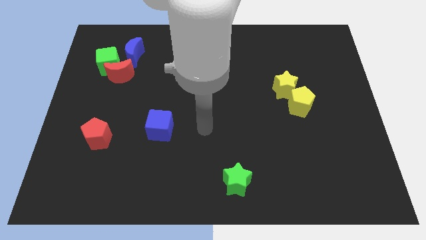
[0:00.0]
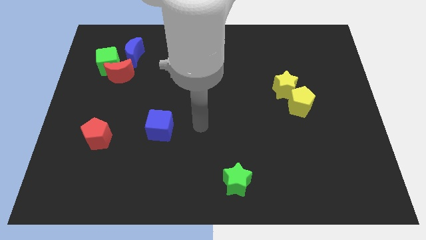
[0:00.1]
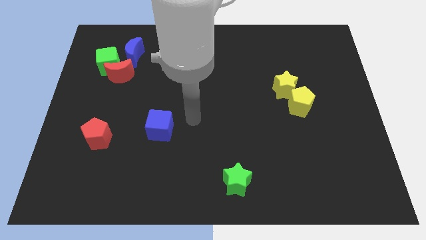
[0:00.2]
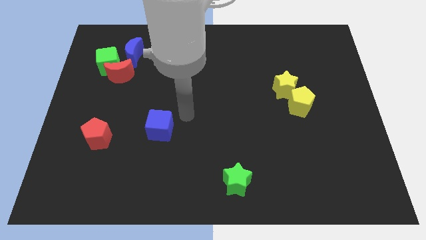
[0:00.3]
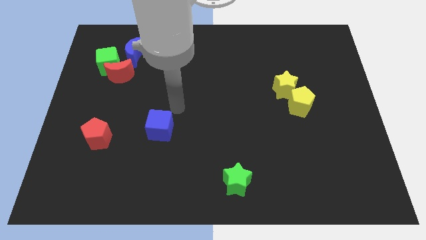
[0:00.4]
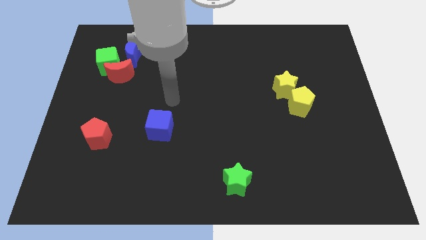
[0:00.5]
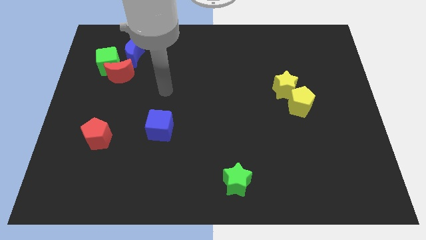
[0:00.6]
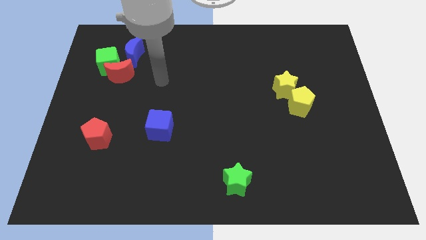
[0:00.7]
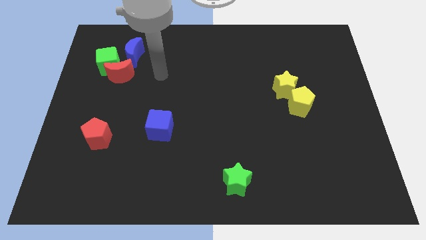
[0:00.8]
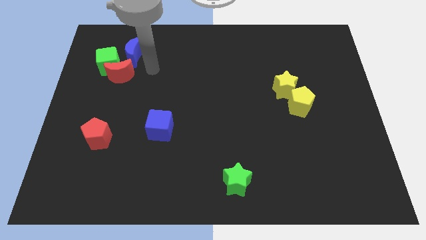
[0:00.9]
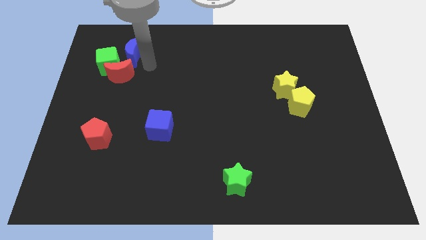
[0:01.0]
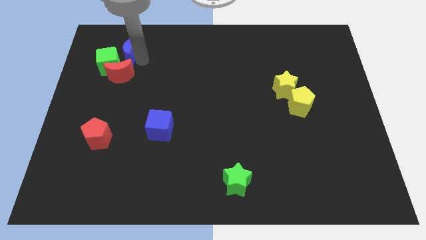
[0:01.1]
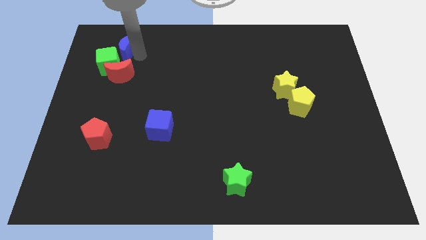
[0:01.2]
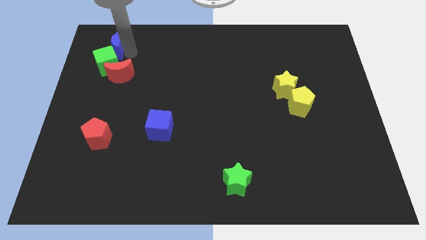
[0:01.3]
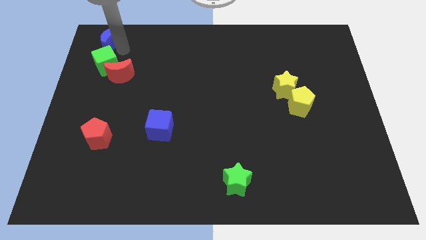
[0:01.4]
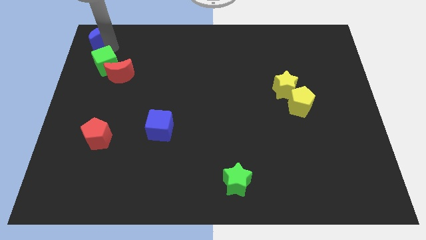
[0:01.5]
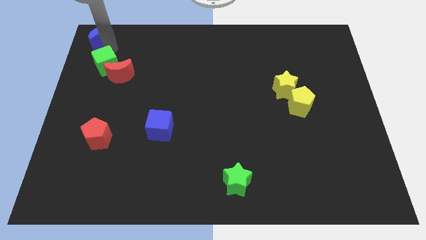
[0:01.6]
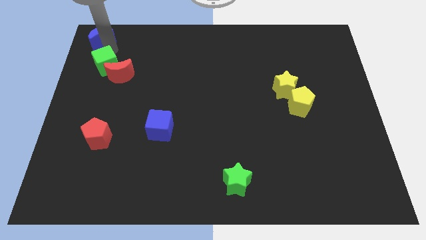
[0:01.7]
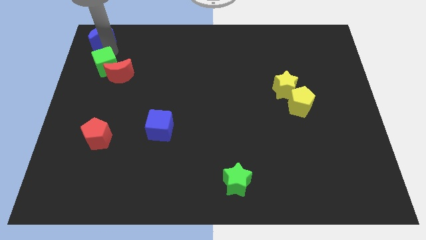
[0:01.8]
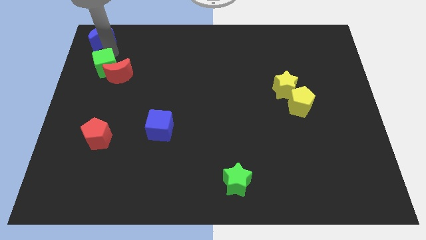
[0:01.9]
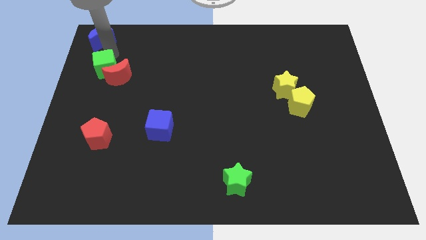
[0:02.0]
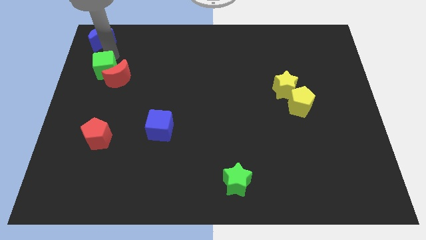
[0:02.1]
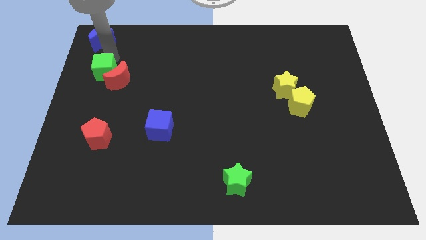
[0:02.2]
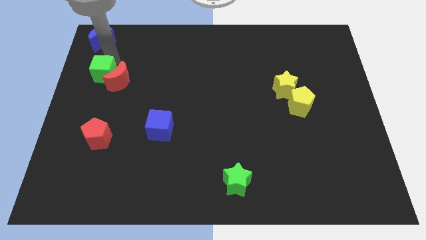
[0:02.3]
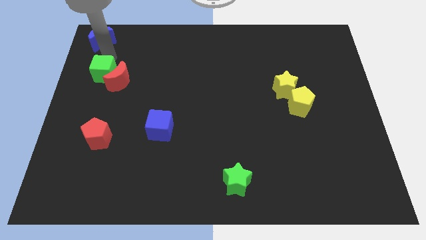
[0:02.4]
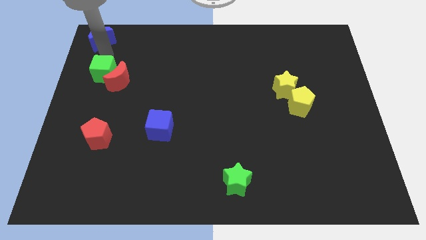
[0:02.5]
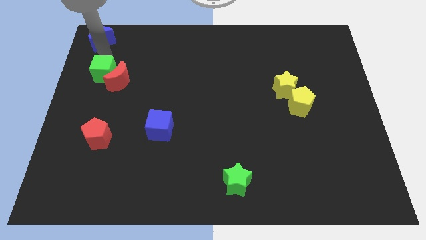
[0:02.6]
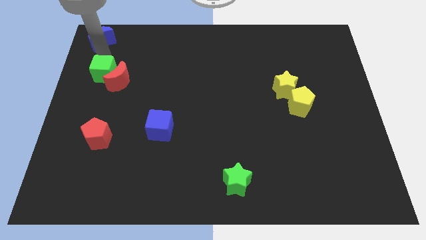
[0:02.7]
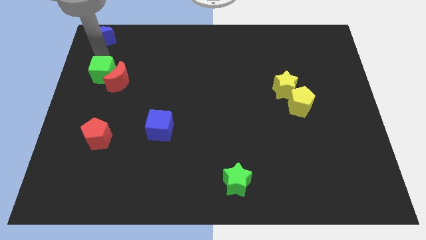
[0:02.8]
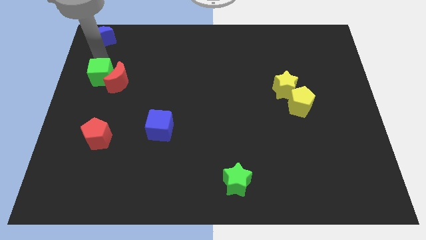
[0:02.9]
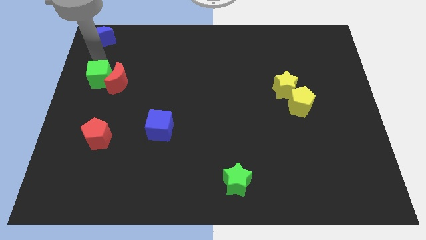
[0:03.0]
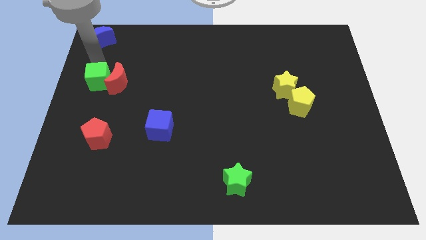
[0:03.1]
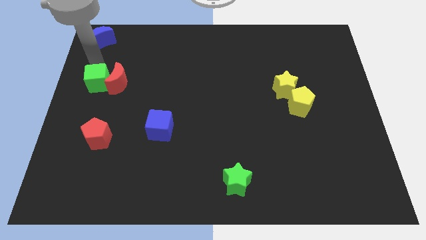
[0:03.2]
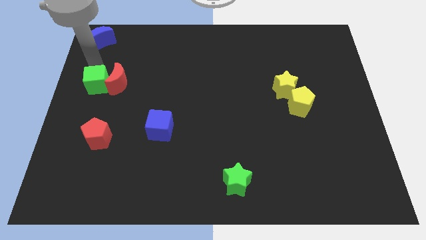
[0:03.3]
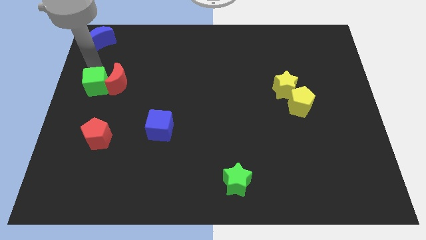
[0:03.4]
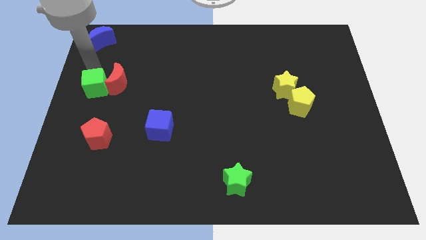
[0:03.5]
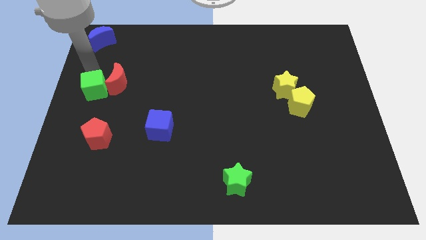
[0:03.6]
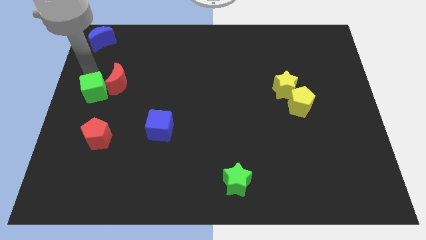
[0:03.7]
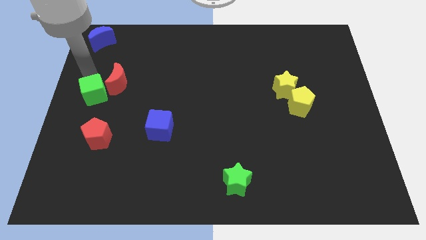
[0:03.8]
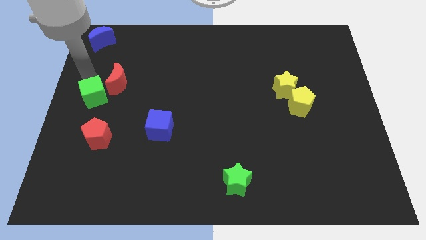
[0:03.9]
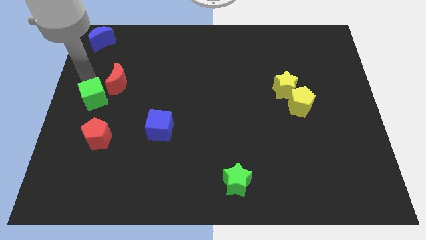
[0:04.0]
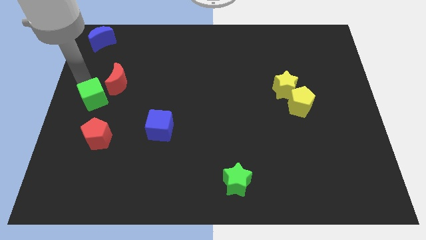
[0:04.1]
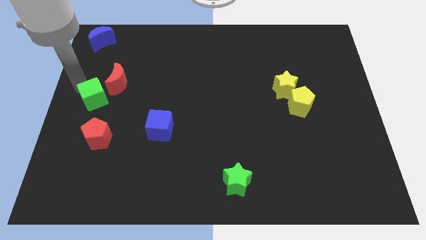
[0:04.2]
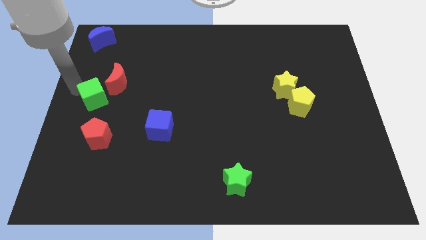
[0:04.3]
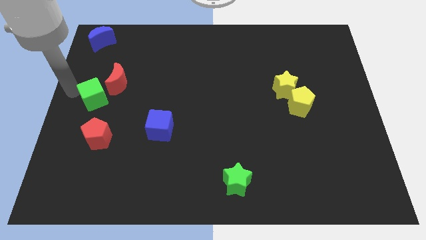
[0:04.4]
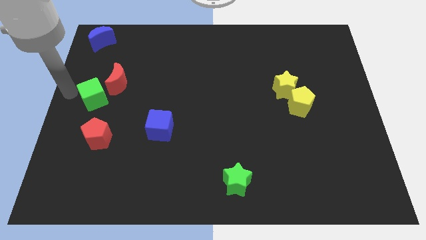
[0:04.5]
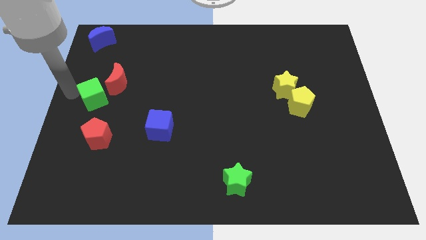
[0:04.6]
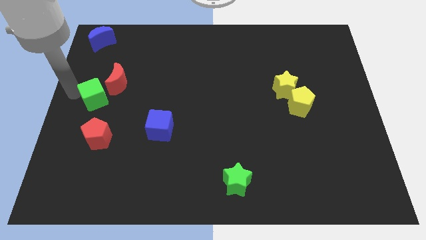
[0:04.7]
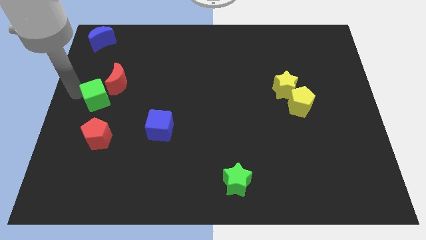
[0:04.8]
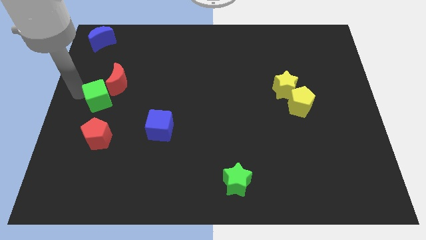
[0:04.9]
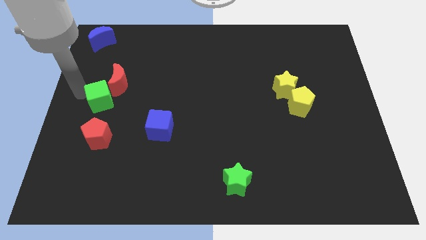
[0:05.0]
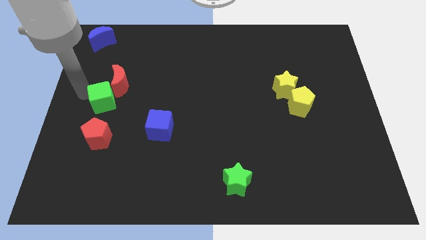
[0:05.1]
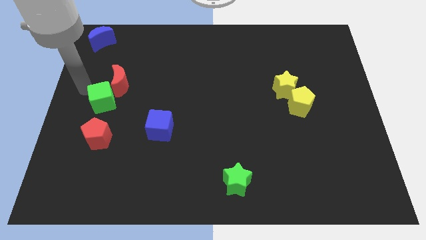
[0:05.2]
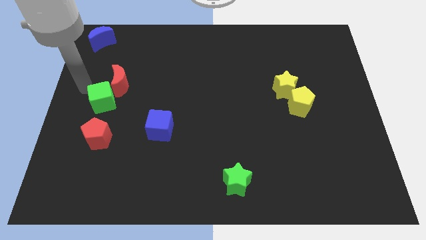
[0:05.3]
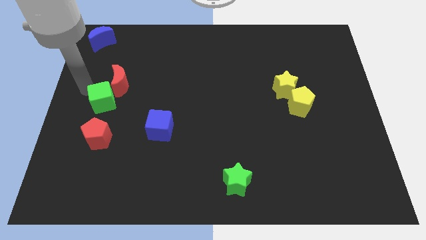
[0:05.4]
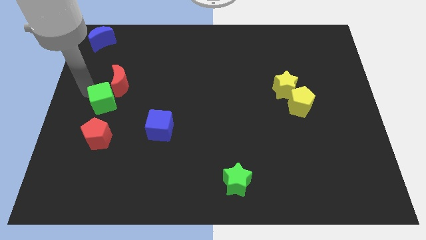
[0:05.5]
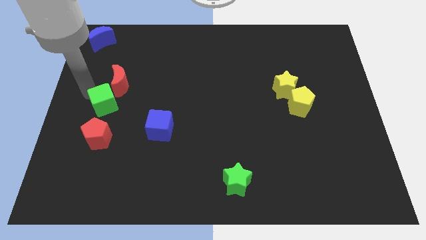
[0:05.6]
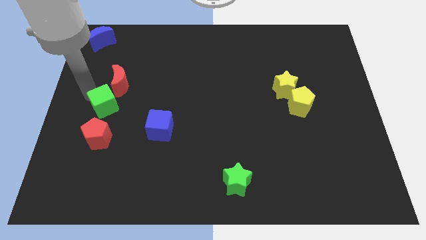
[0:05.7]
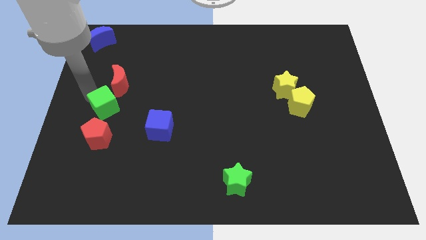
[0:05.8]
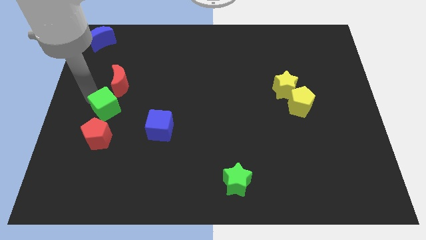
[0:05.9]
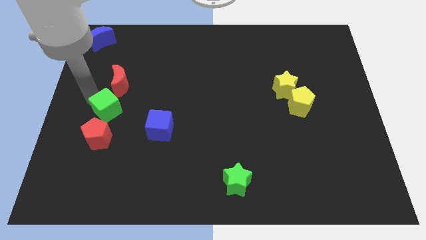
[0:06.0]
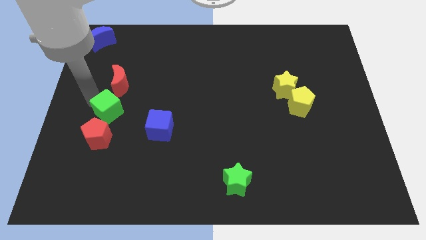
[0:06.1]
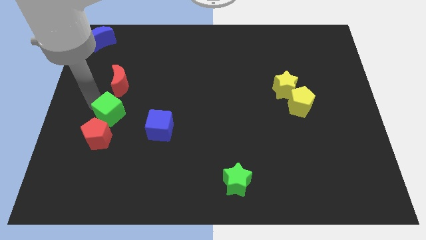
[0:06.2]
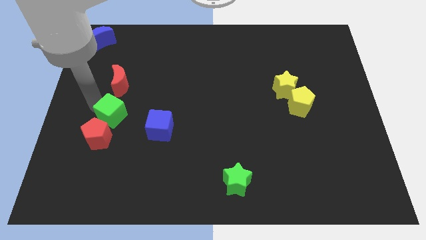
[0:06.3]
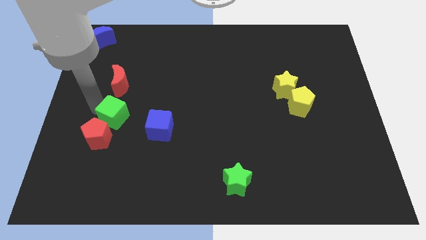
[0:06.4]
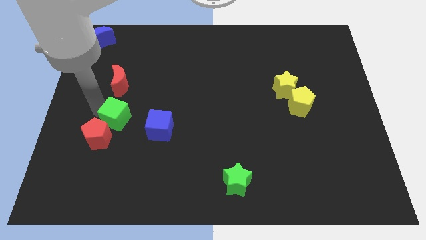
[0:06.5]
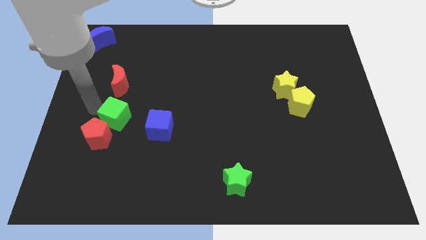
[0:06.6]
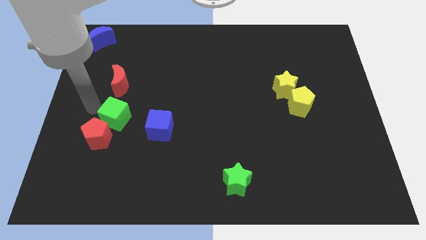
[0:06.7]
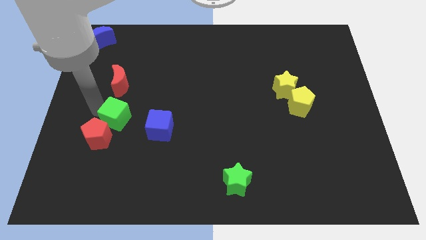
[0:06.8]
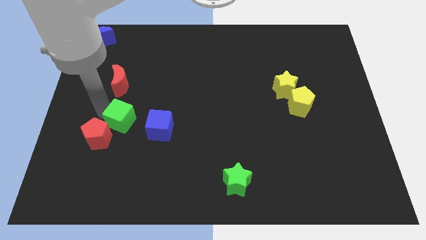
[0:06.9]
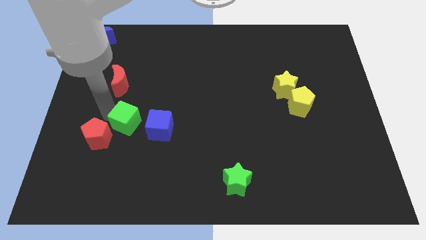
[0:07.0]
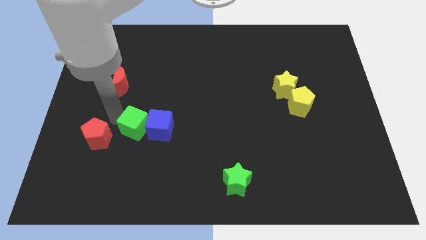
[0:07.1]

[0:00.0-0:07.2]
put the green cube close to the blue cube
